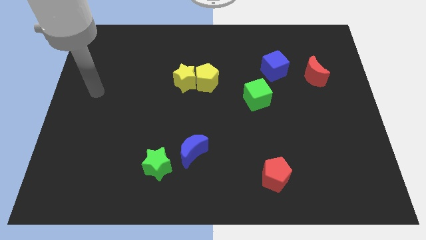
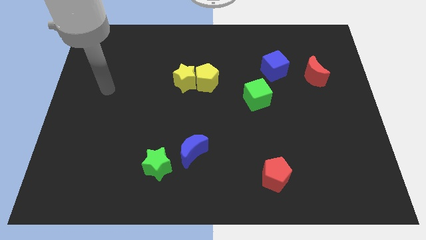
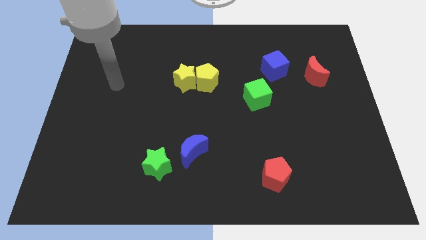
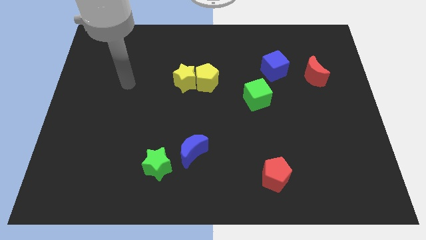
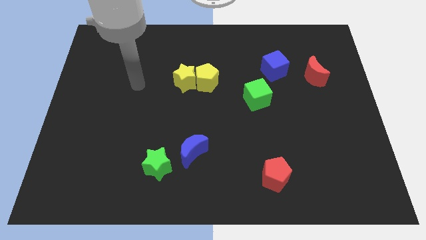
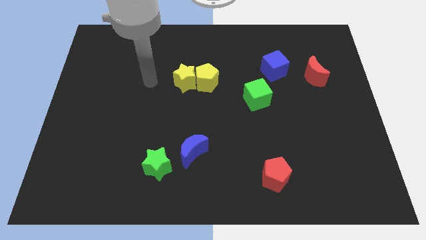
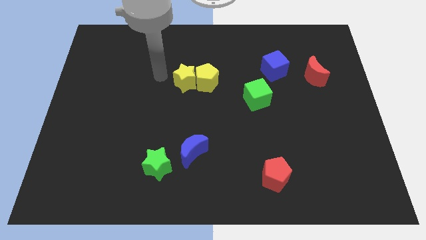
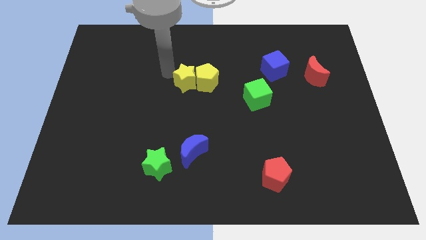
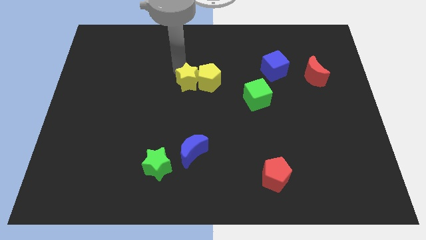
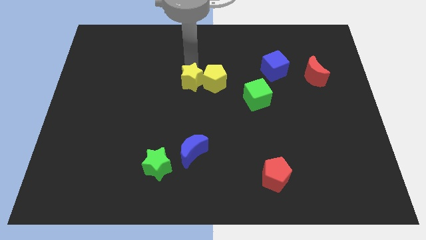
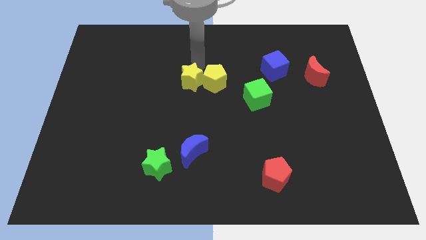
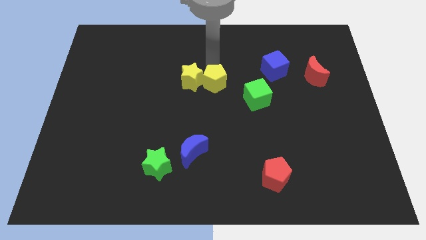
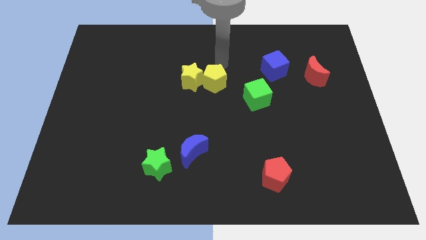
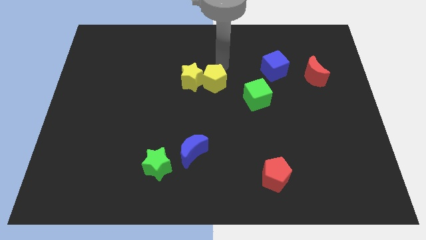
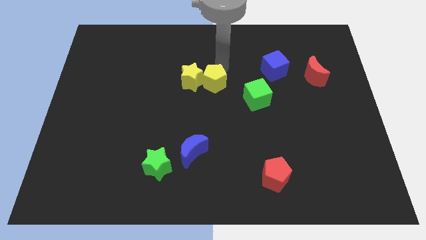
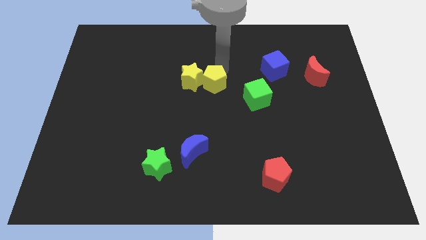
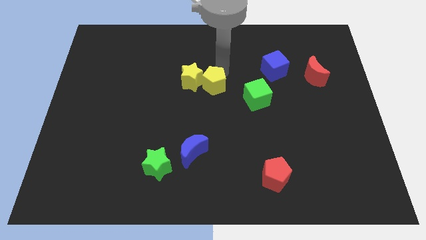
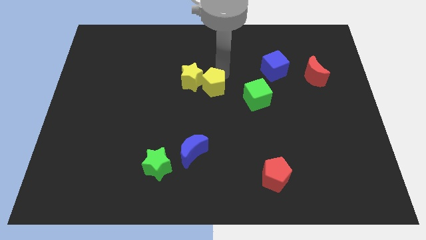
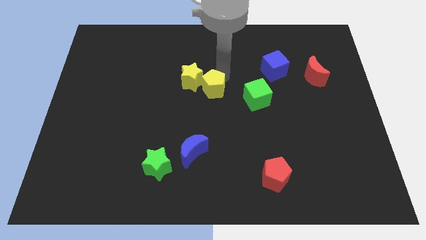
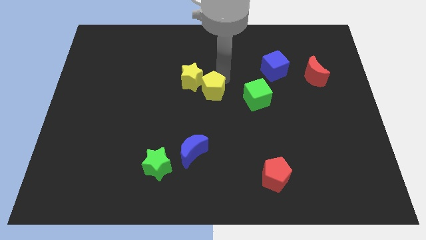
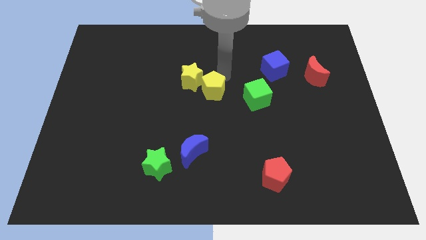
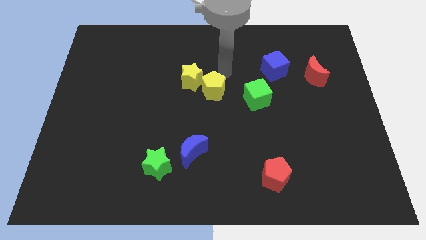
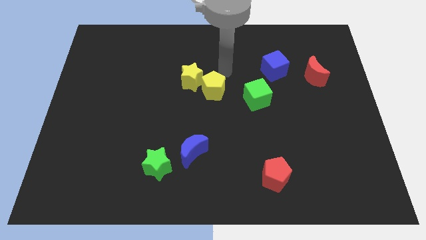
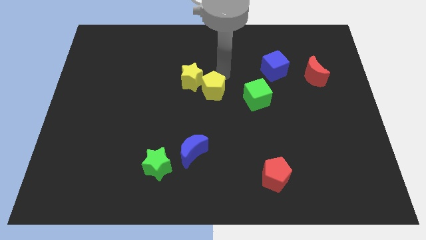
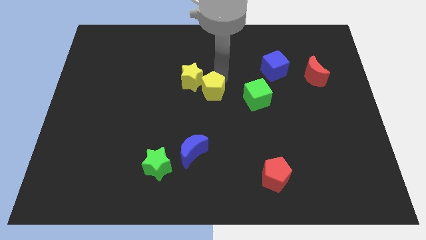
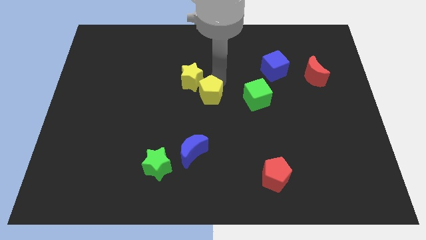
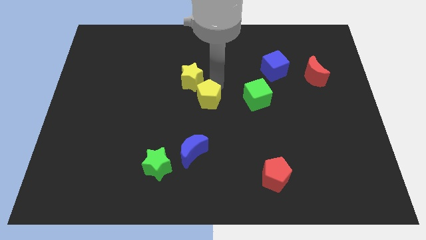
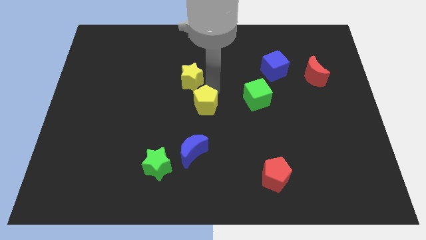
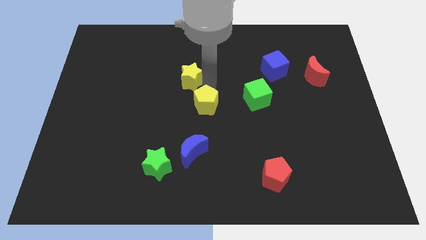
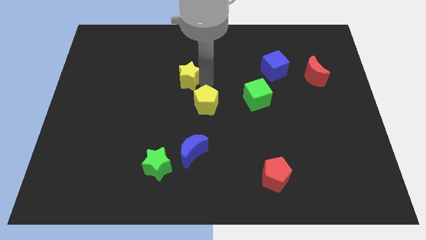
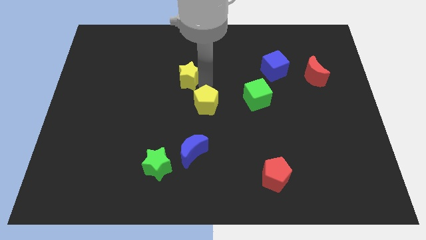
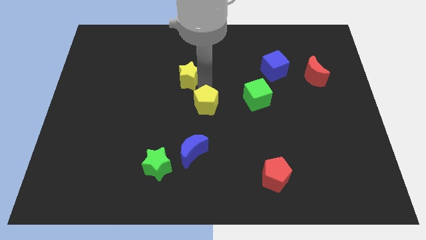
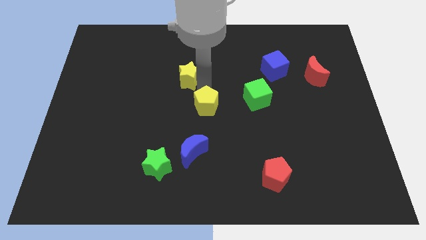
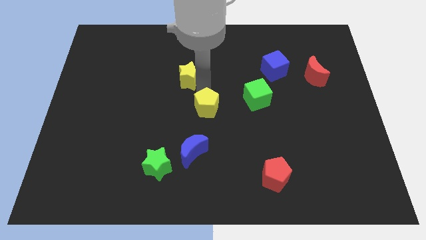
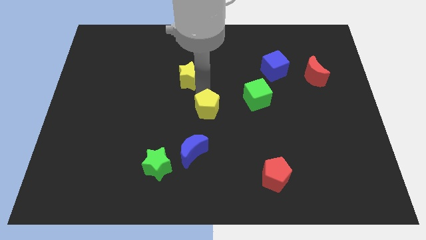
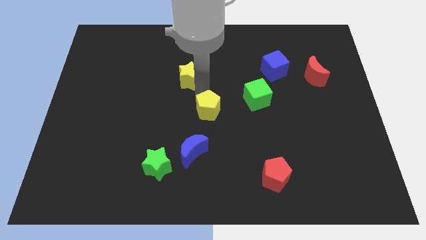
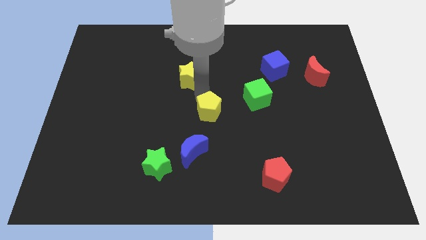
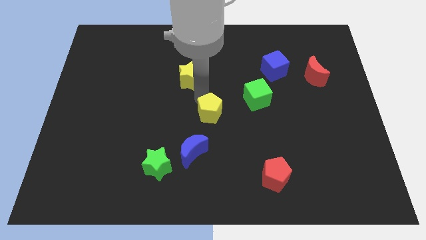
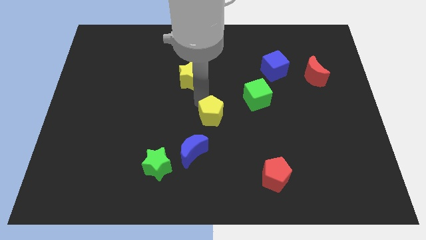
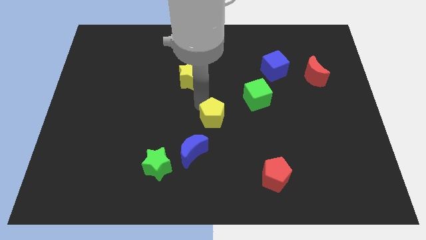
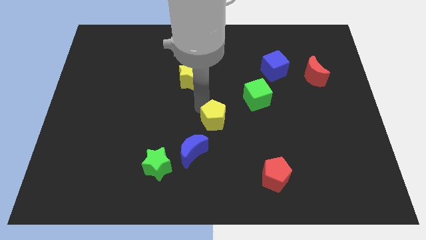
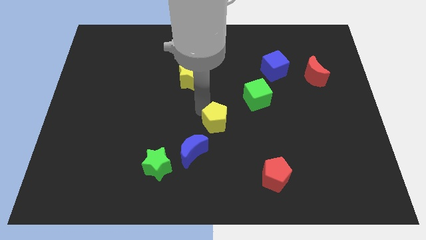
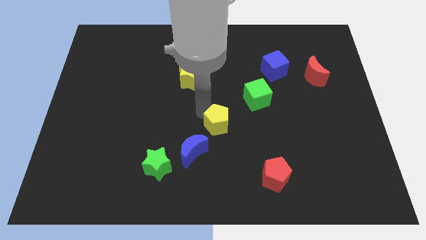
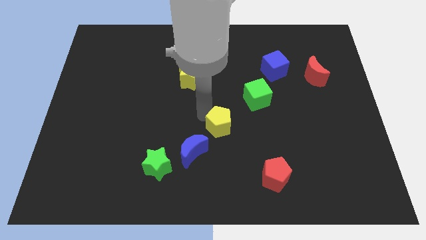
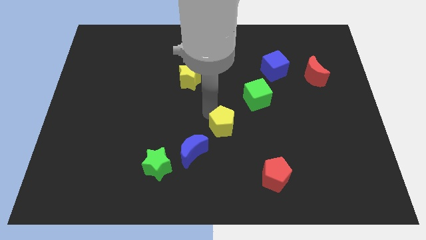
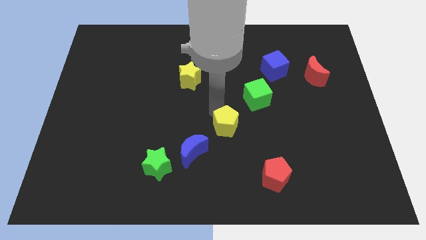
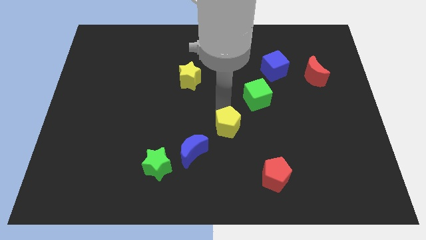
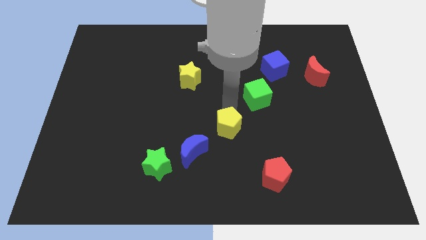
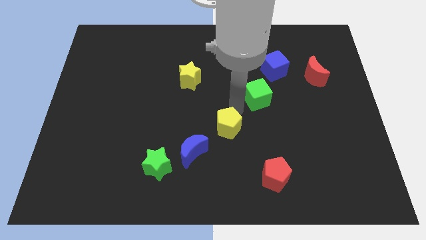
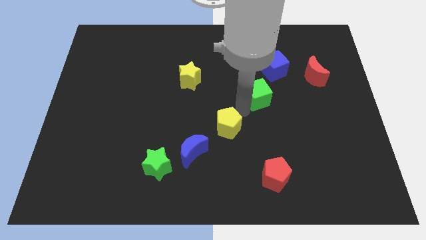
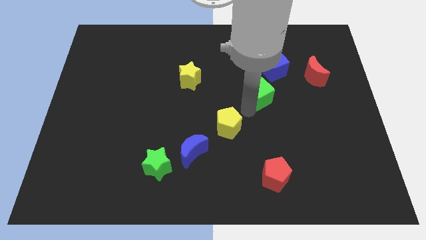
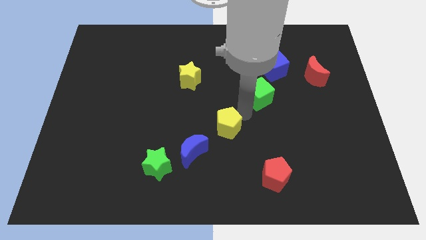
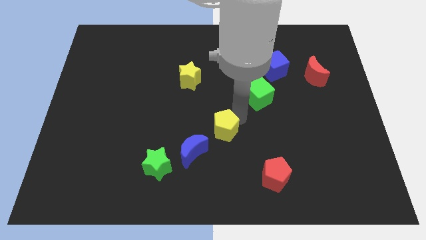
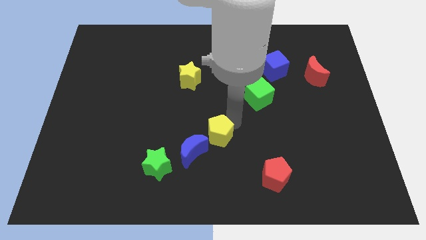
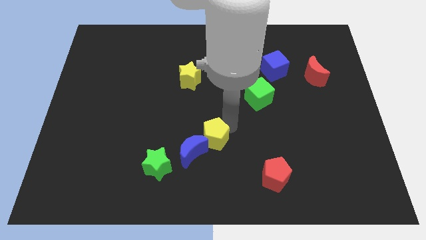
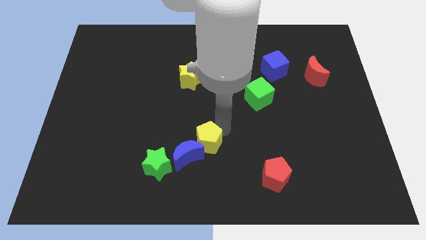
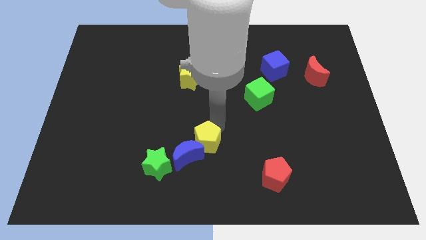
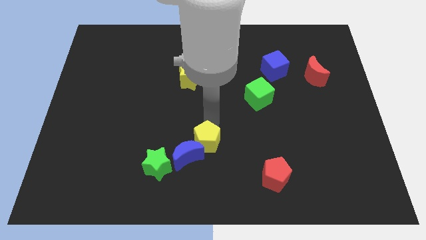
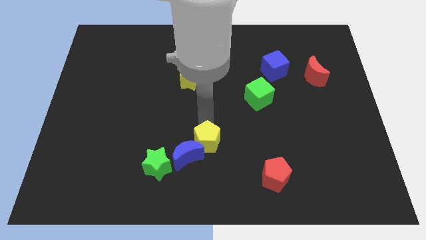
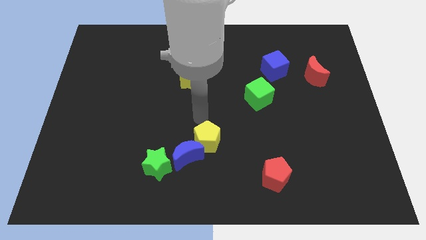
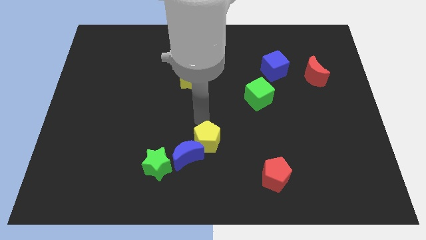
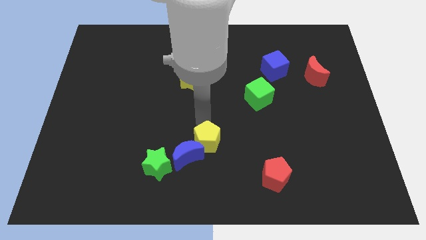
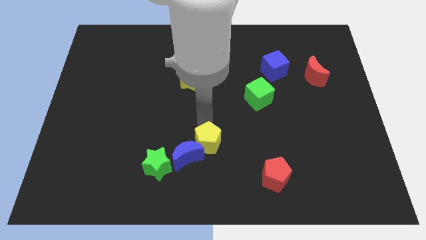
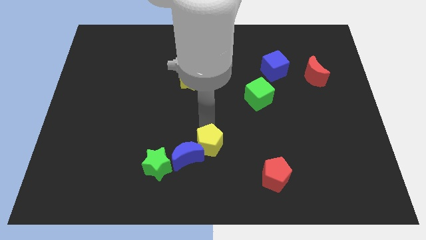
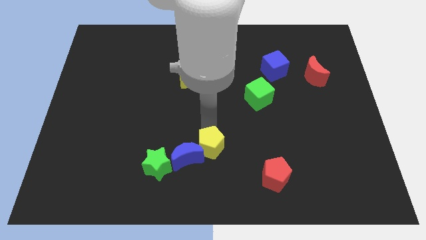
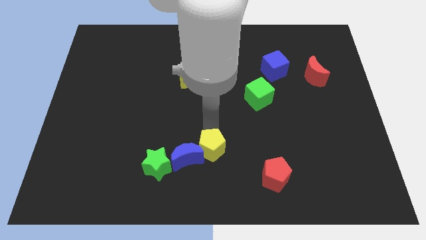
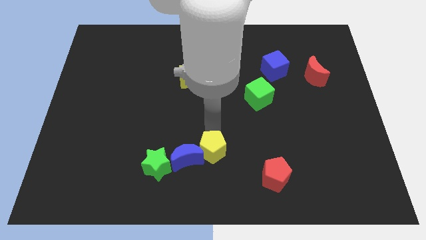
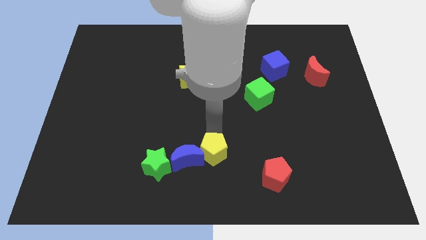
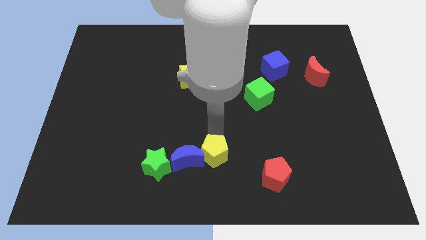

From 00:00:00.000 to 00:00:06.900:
move the yellow pentagon to the bottom side
